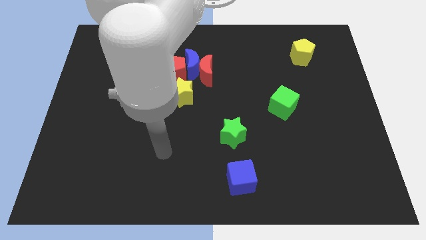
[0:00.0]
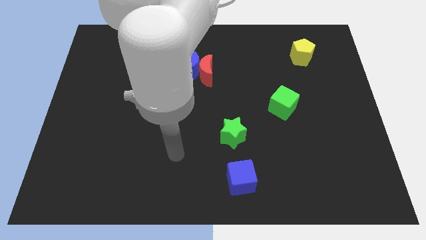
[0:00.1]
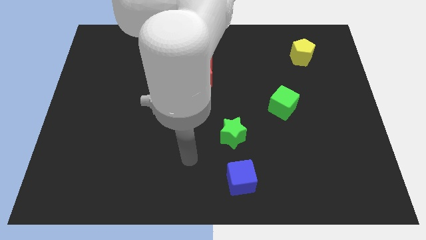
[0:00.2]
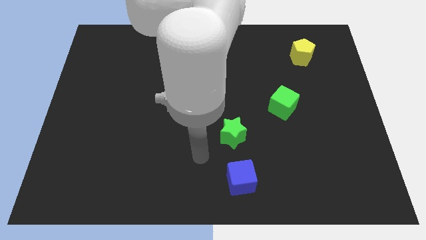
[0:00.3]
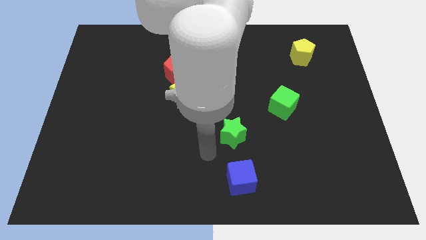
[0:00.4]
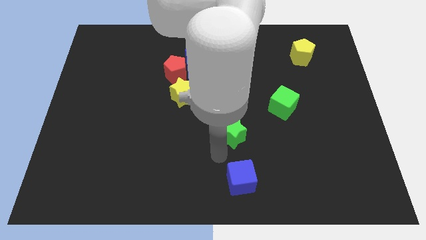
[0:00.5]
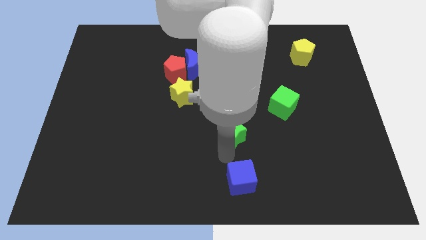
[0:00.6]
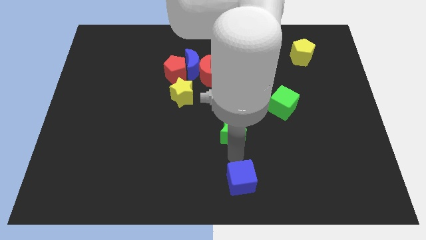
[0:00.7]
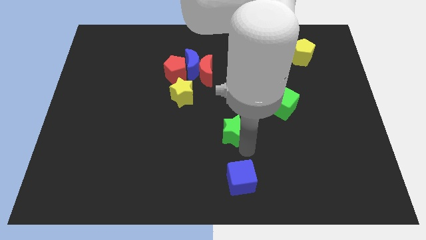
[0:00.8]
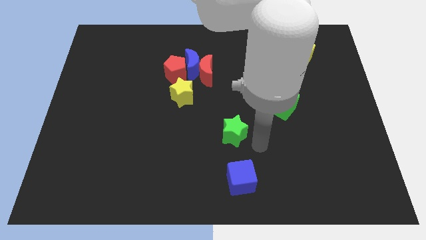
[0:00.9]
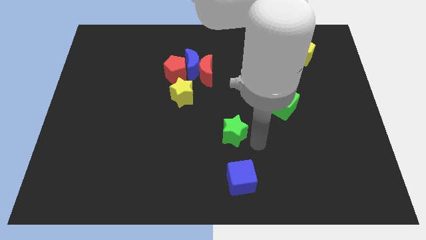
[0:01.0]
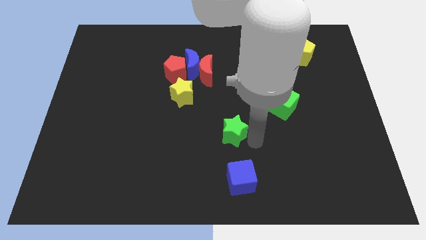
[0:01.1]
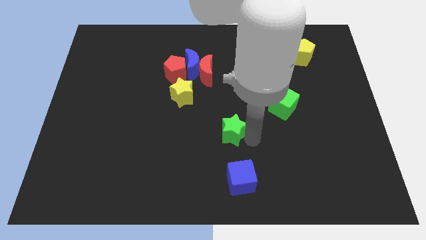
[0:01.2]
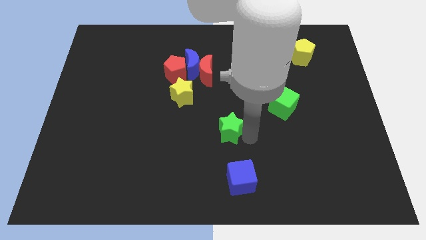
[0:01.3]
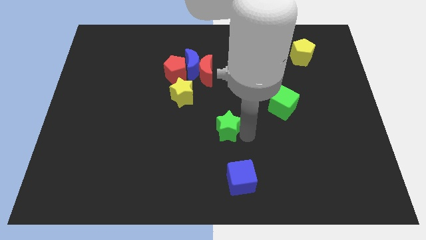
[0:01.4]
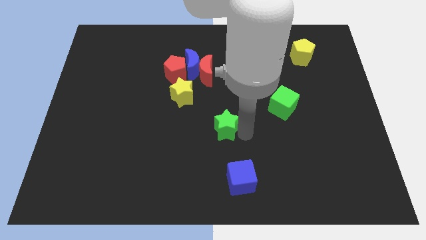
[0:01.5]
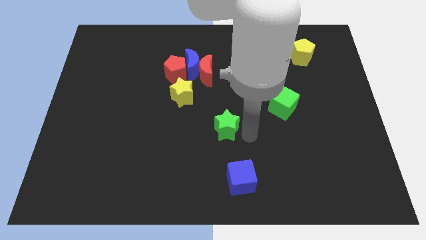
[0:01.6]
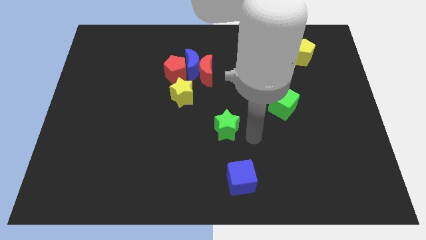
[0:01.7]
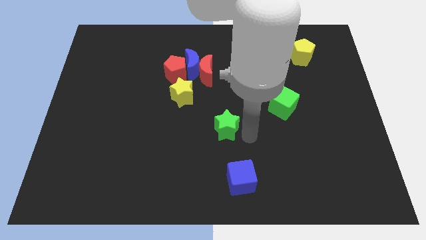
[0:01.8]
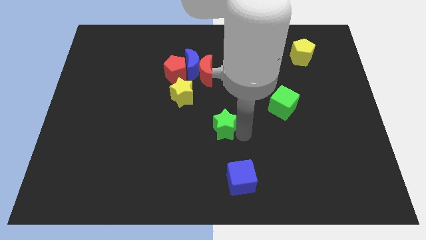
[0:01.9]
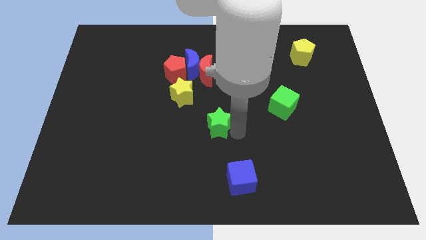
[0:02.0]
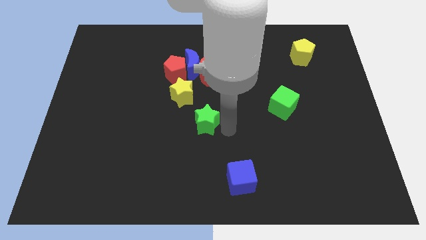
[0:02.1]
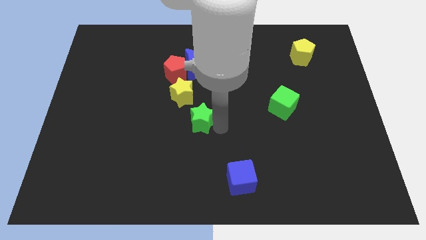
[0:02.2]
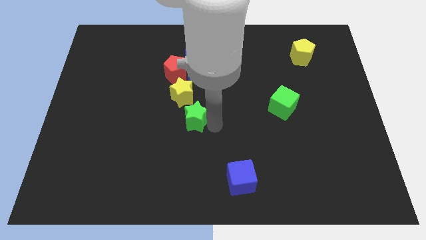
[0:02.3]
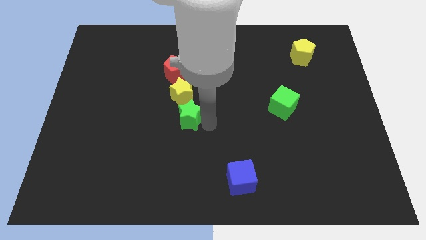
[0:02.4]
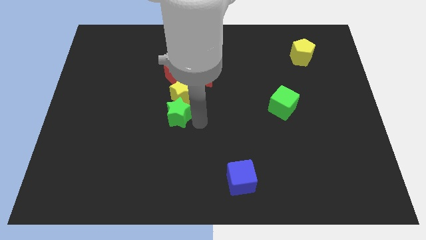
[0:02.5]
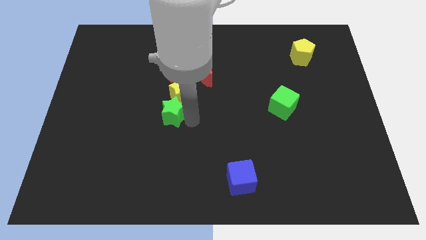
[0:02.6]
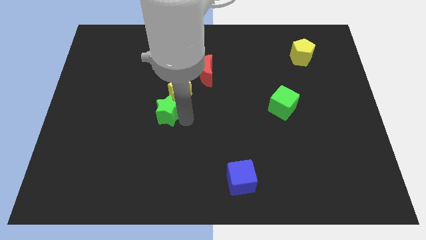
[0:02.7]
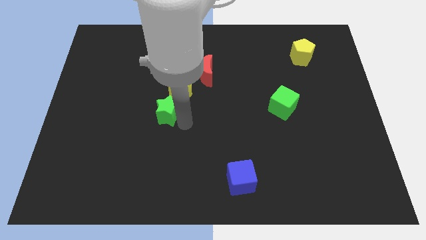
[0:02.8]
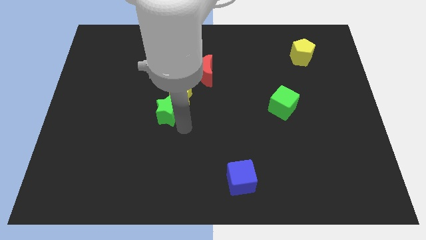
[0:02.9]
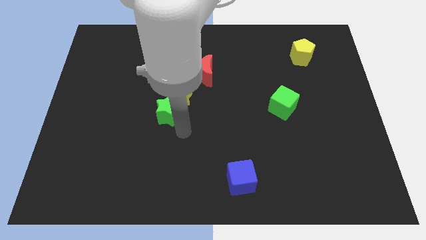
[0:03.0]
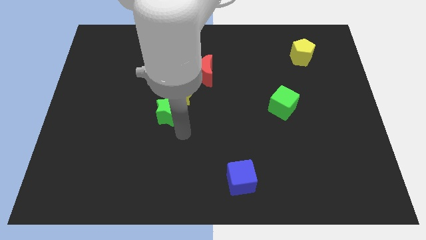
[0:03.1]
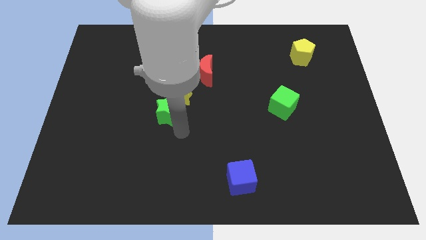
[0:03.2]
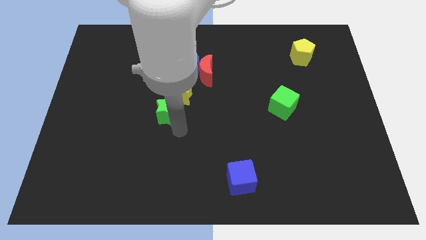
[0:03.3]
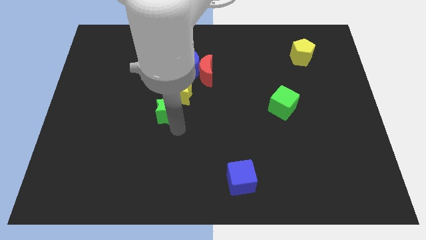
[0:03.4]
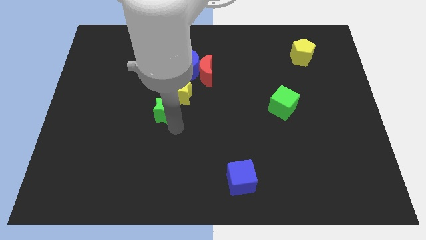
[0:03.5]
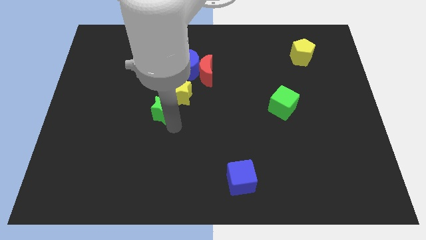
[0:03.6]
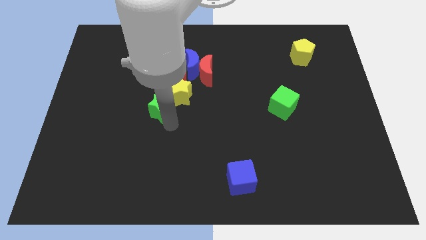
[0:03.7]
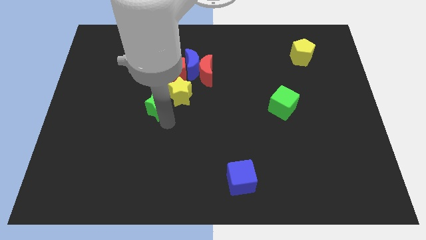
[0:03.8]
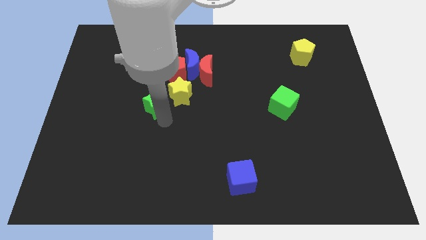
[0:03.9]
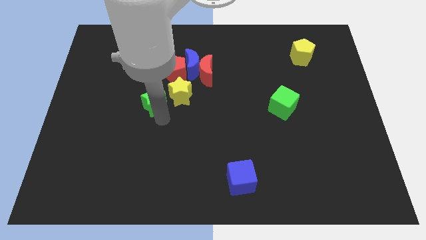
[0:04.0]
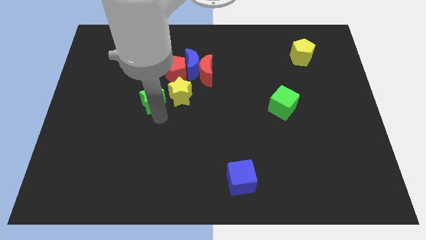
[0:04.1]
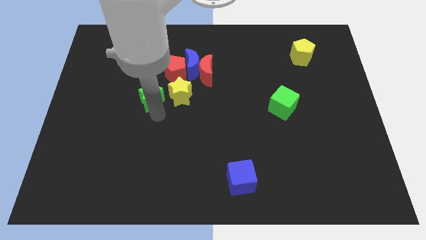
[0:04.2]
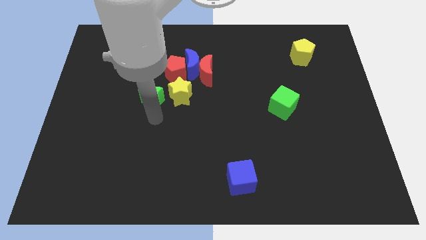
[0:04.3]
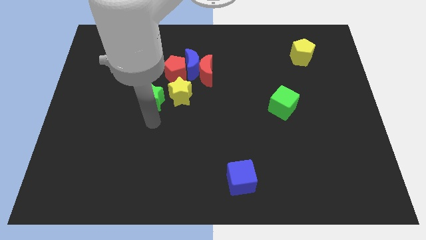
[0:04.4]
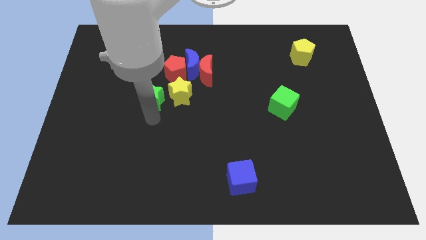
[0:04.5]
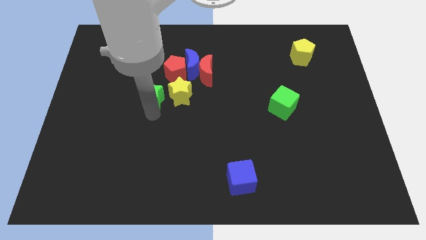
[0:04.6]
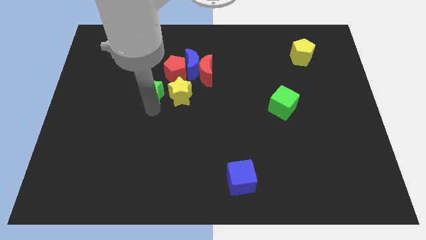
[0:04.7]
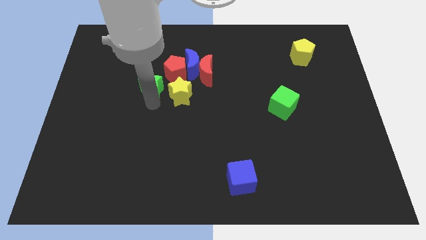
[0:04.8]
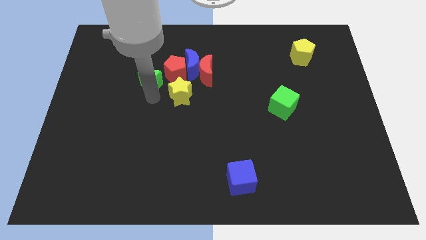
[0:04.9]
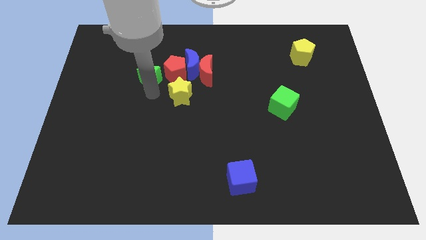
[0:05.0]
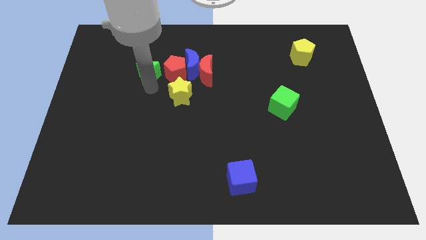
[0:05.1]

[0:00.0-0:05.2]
move the green star to the top left of the red pentagon

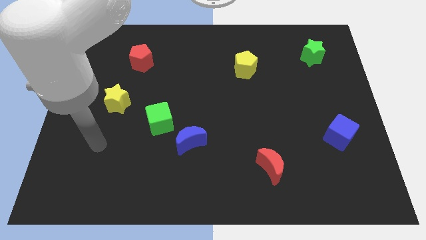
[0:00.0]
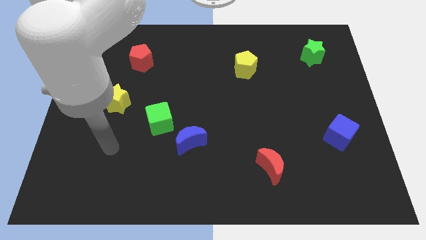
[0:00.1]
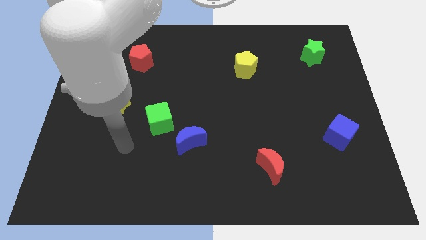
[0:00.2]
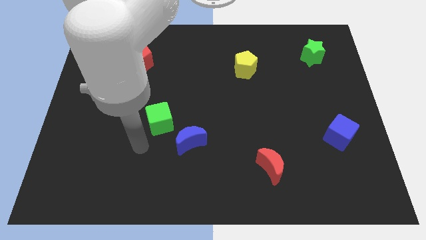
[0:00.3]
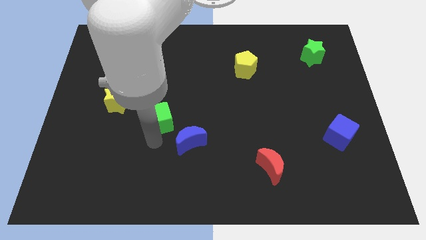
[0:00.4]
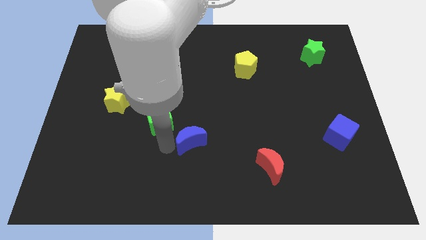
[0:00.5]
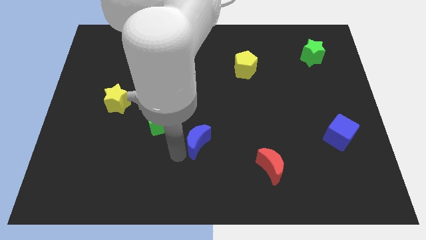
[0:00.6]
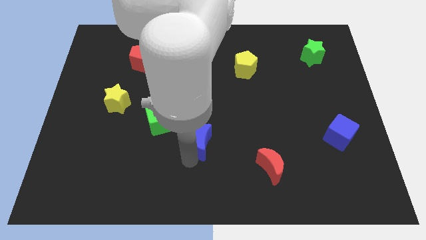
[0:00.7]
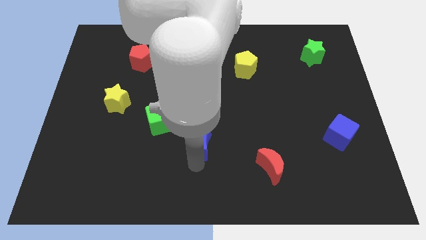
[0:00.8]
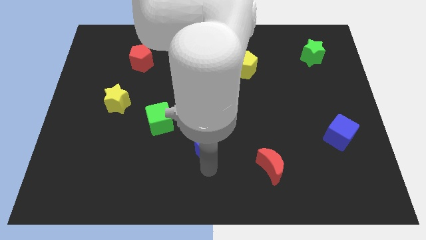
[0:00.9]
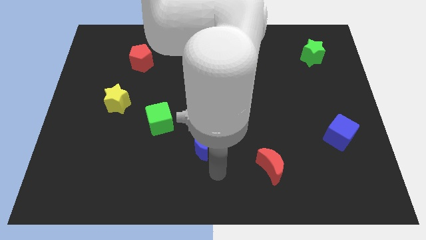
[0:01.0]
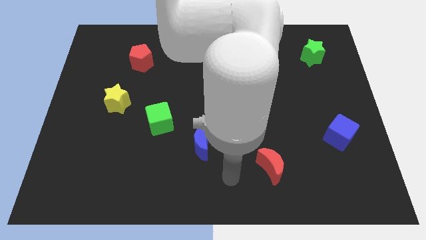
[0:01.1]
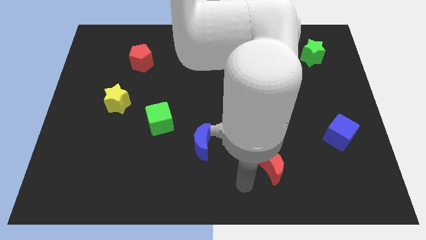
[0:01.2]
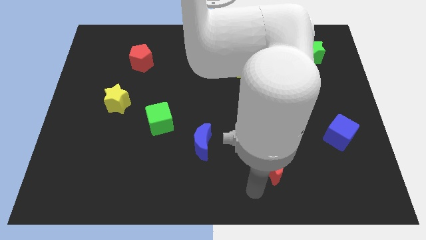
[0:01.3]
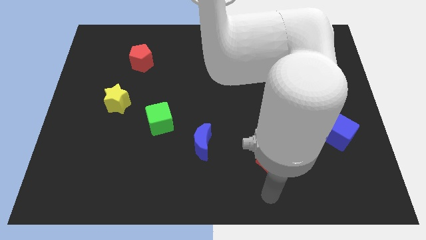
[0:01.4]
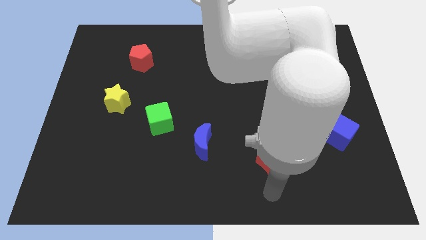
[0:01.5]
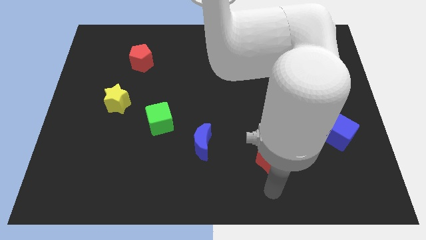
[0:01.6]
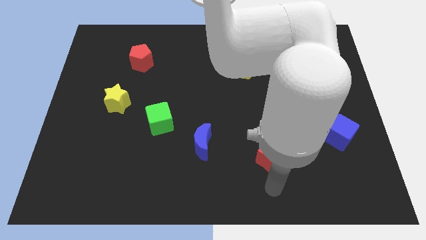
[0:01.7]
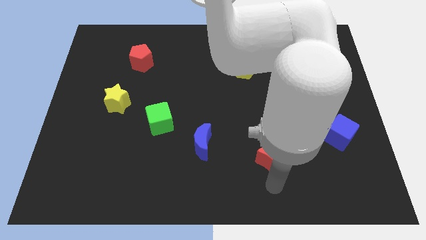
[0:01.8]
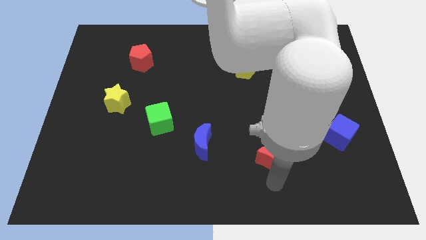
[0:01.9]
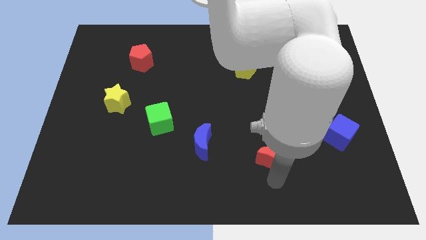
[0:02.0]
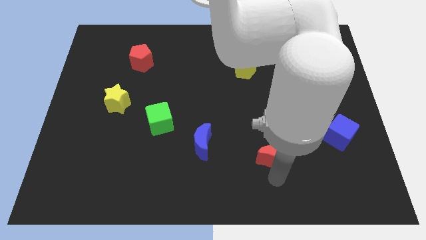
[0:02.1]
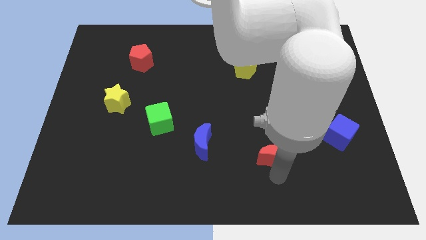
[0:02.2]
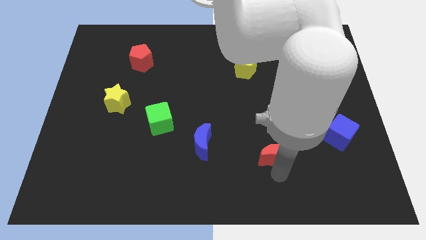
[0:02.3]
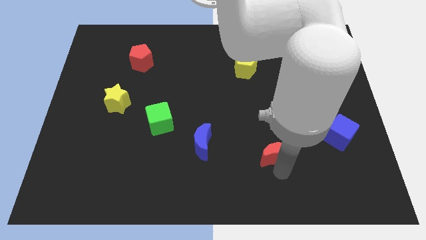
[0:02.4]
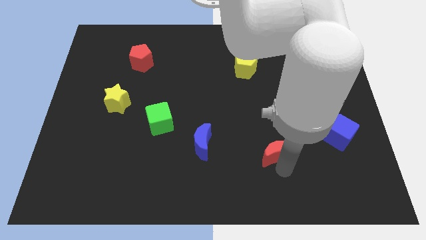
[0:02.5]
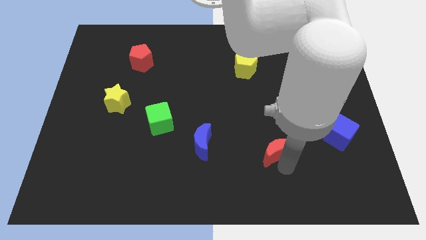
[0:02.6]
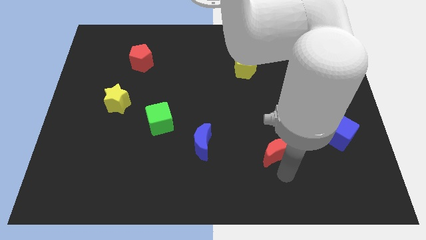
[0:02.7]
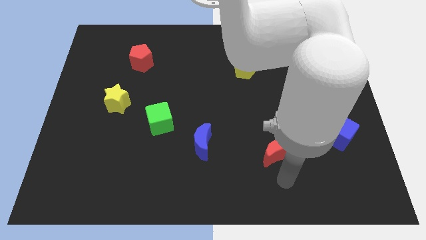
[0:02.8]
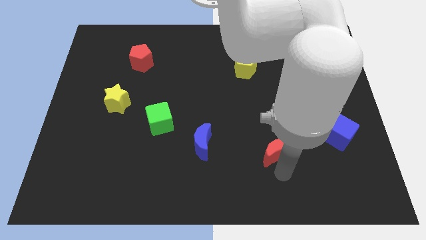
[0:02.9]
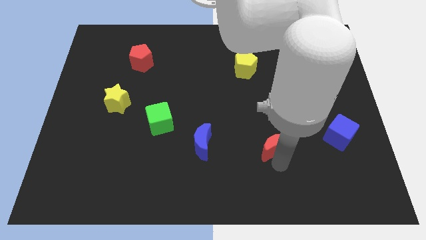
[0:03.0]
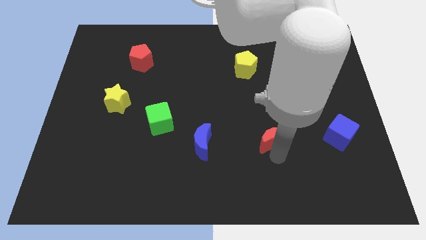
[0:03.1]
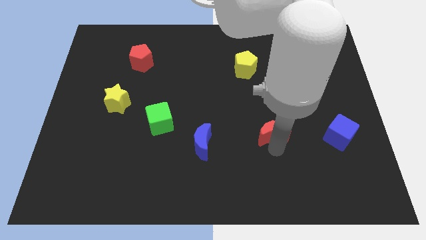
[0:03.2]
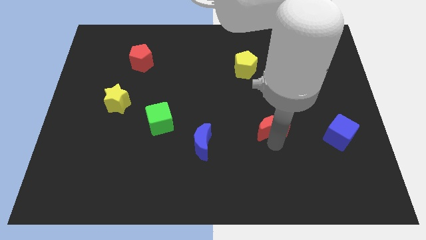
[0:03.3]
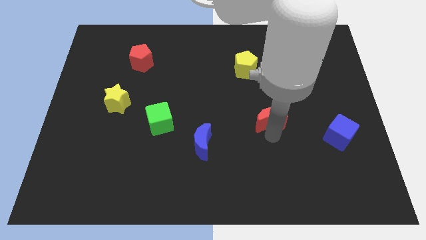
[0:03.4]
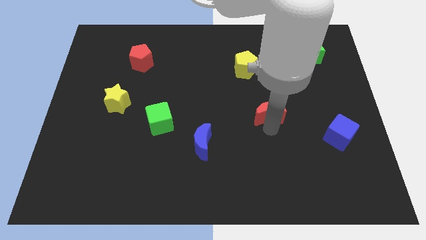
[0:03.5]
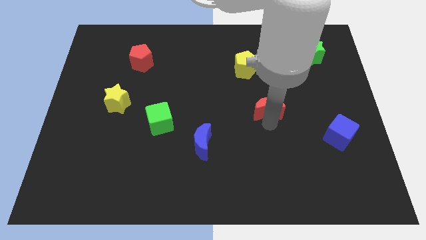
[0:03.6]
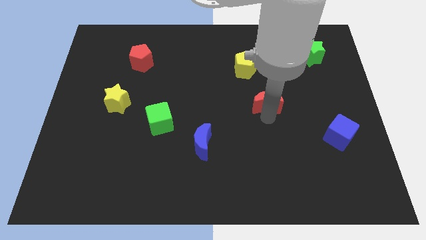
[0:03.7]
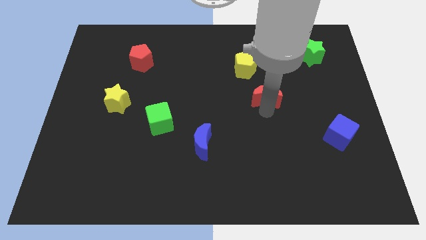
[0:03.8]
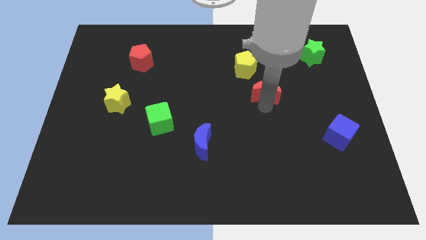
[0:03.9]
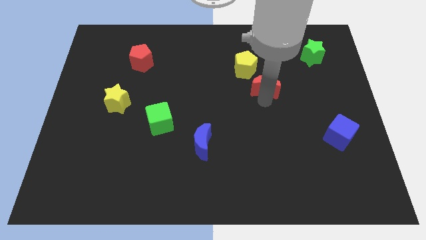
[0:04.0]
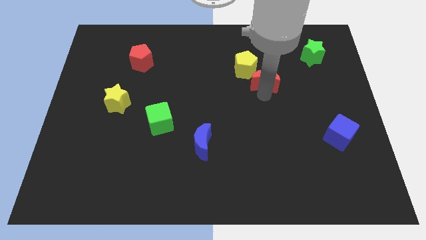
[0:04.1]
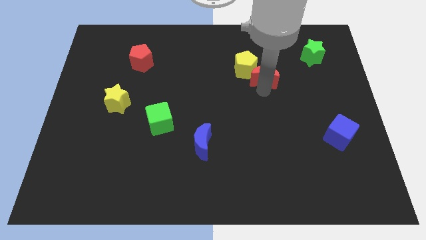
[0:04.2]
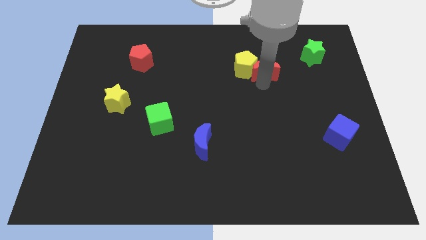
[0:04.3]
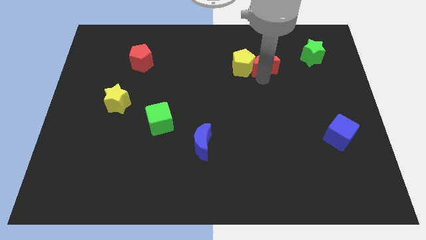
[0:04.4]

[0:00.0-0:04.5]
put the red moon left of the green star
